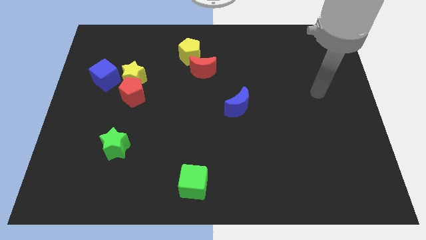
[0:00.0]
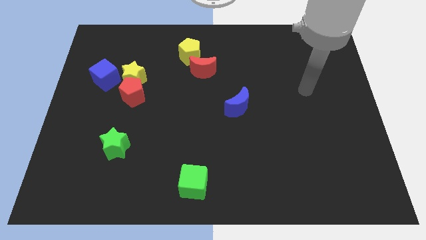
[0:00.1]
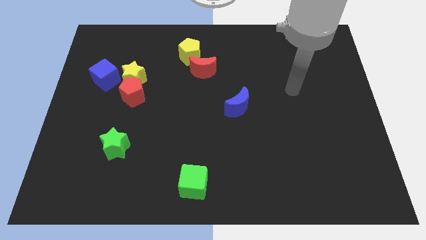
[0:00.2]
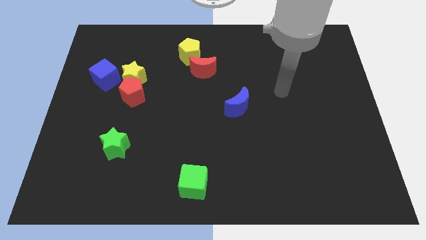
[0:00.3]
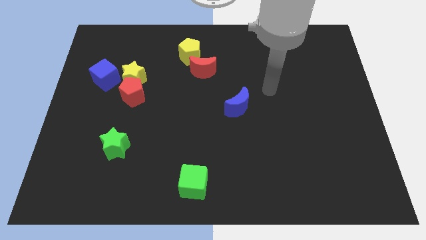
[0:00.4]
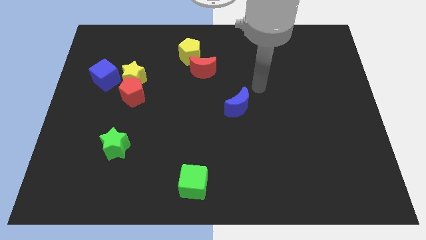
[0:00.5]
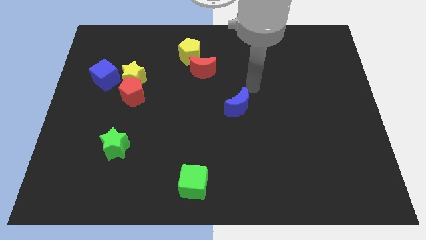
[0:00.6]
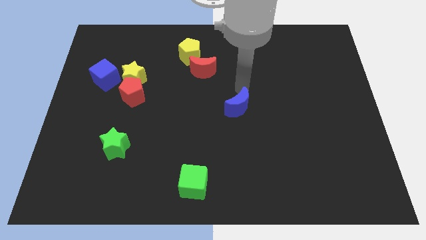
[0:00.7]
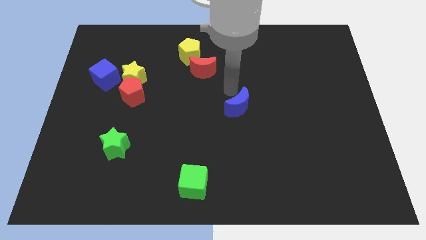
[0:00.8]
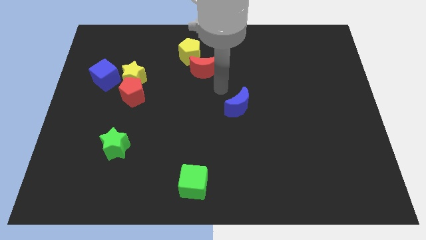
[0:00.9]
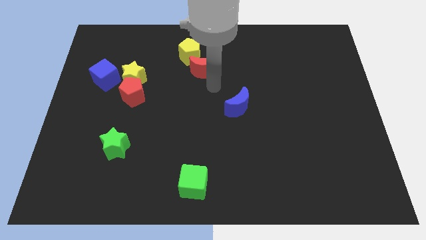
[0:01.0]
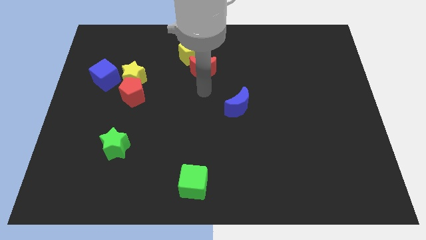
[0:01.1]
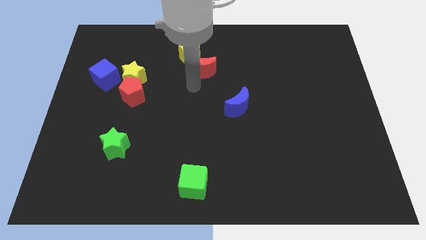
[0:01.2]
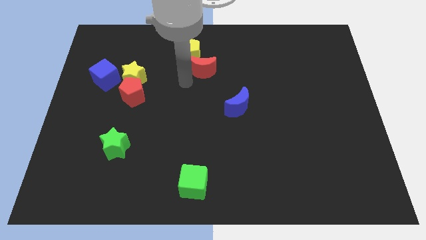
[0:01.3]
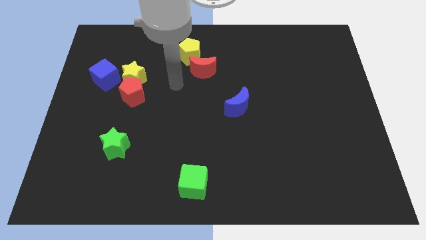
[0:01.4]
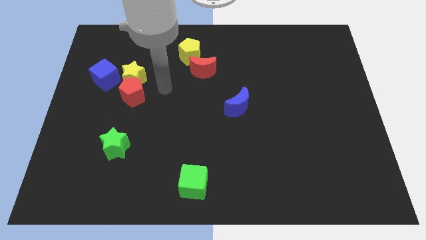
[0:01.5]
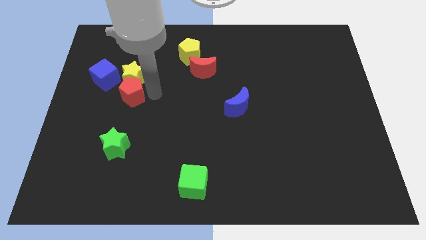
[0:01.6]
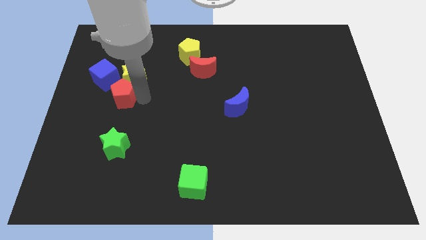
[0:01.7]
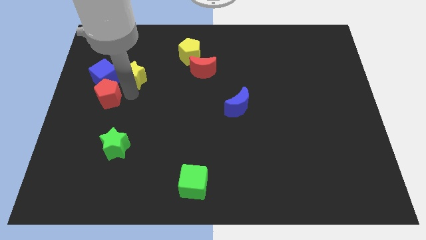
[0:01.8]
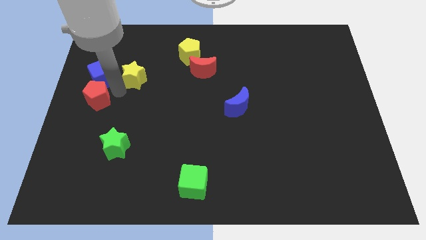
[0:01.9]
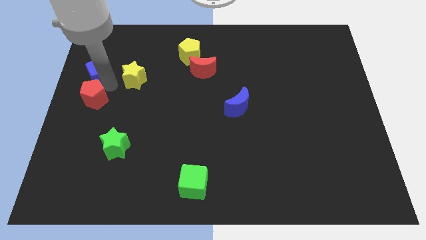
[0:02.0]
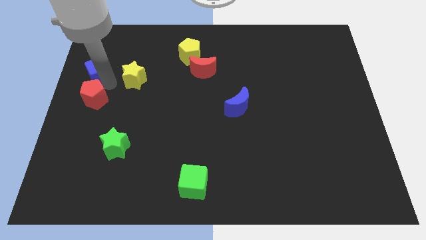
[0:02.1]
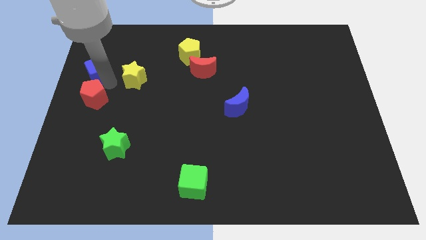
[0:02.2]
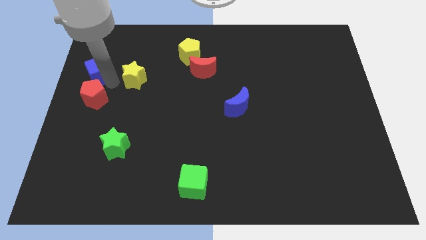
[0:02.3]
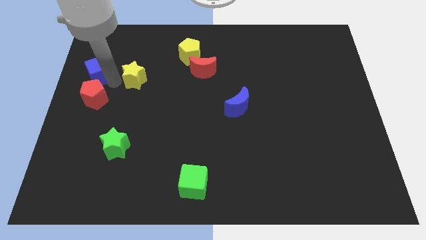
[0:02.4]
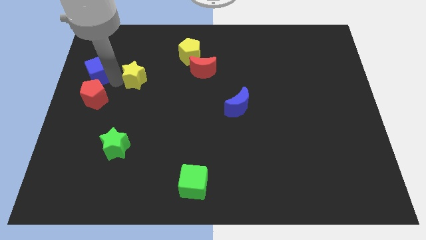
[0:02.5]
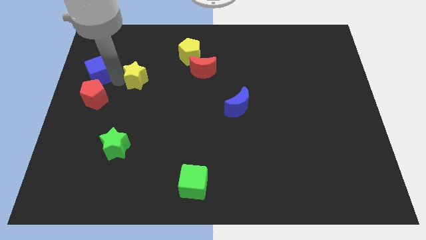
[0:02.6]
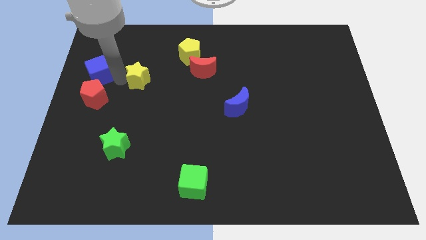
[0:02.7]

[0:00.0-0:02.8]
move the yellow star away from the red pentagon and blue cube

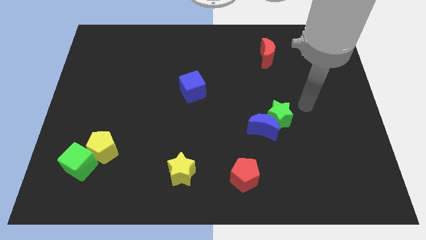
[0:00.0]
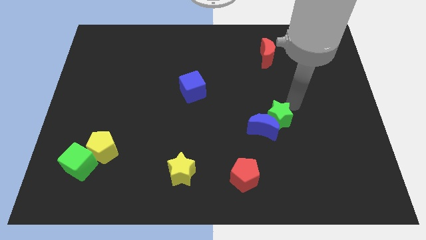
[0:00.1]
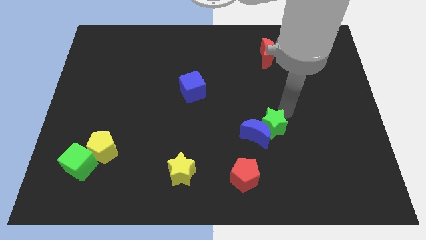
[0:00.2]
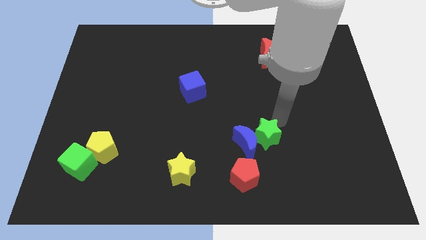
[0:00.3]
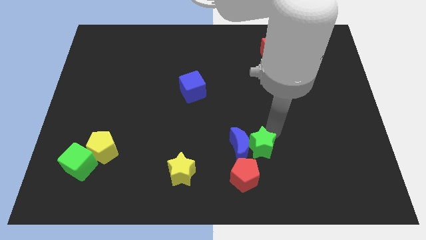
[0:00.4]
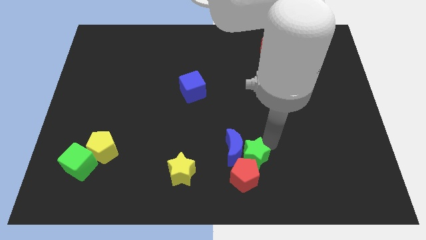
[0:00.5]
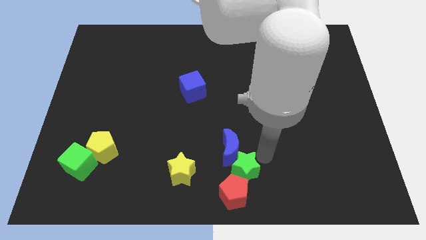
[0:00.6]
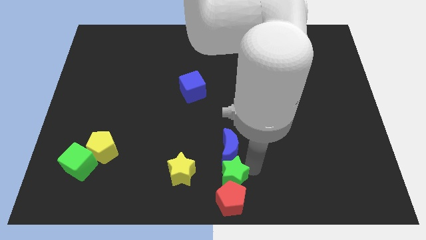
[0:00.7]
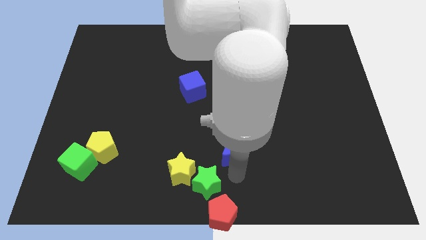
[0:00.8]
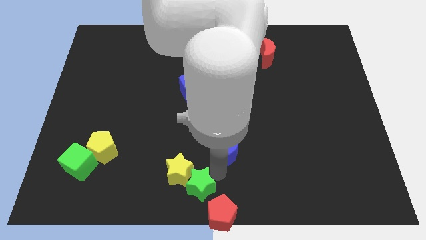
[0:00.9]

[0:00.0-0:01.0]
separate the blue moon from the green star

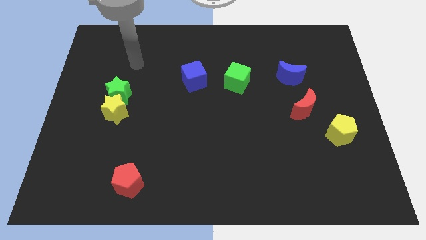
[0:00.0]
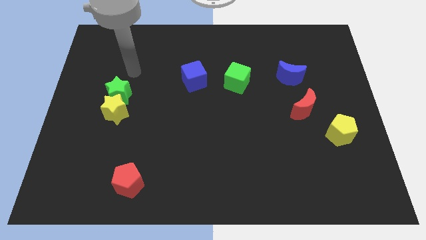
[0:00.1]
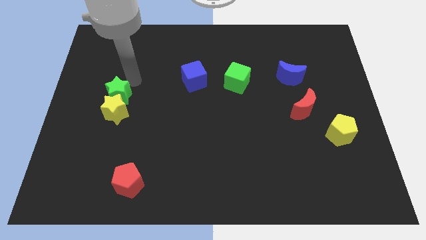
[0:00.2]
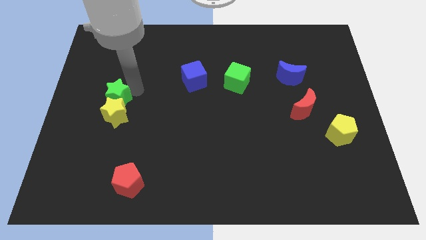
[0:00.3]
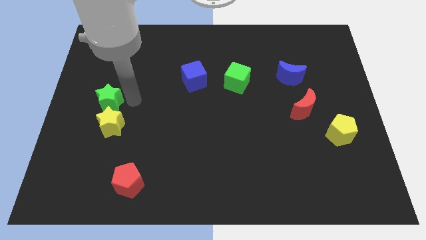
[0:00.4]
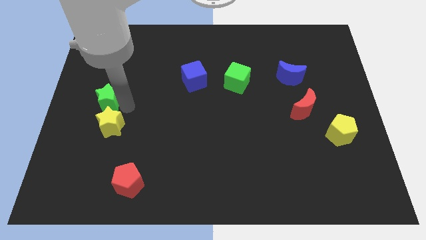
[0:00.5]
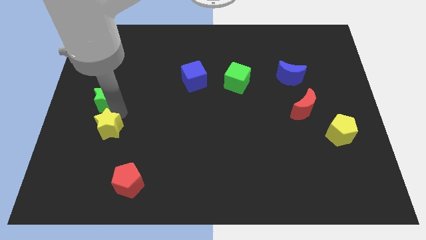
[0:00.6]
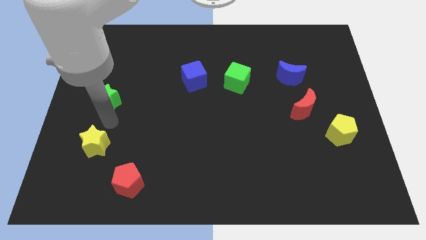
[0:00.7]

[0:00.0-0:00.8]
move the green star away from the yellow star

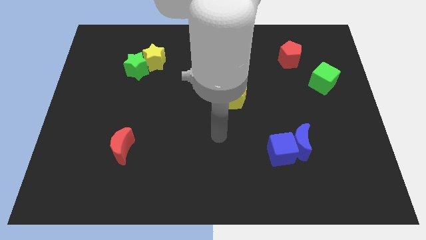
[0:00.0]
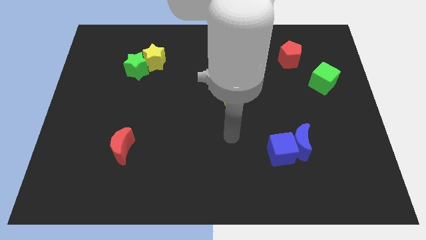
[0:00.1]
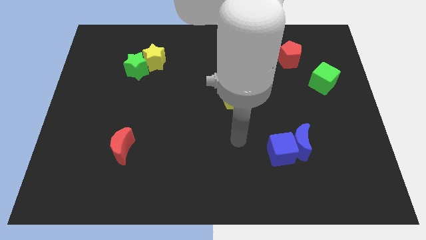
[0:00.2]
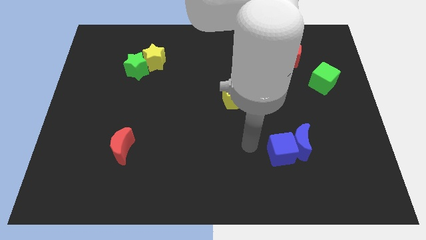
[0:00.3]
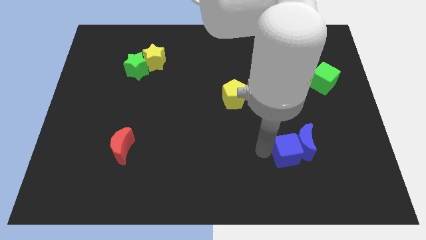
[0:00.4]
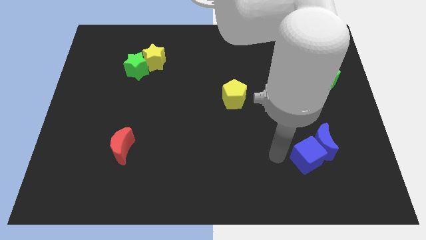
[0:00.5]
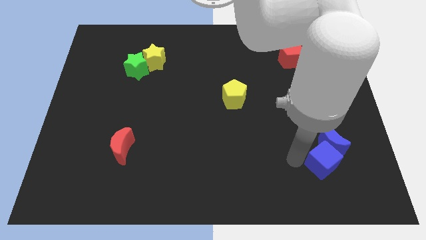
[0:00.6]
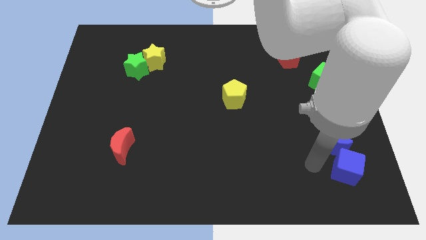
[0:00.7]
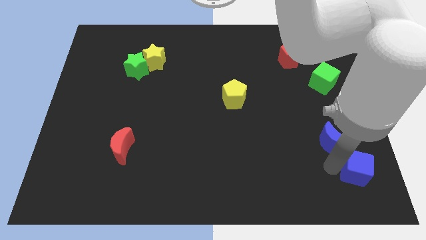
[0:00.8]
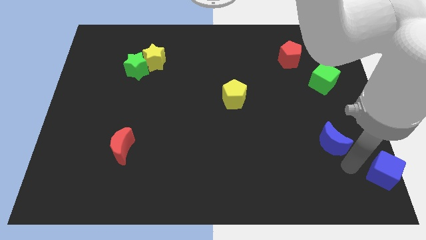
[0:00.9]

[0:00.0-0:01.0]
pull the blue moon apart from the blue cube

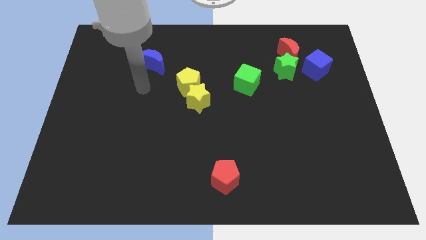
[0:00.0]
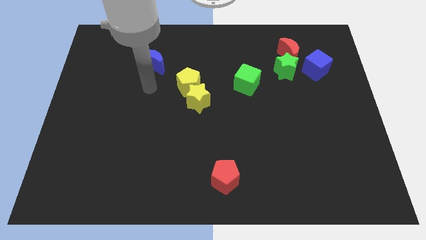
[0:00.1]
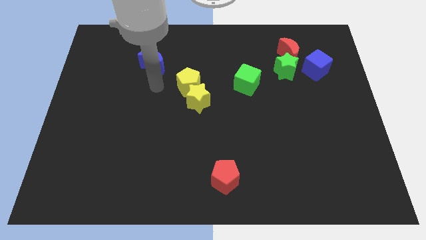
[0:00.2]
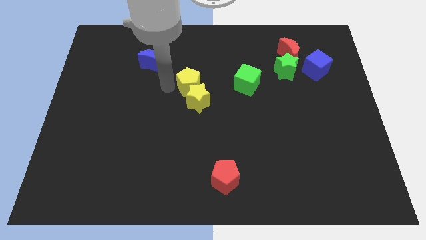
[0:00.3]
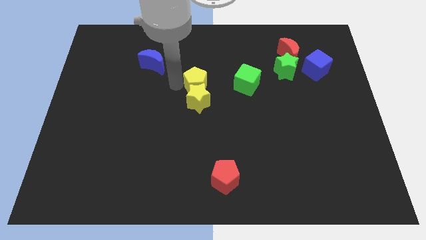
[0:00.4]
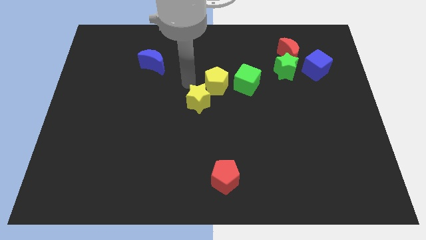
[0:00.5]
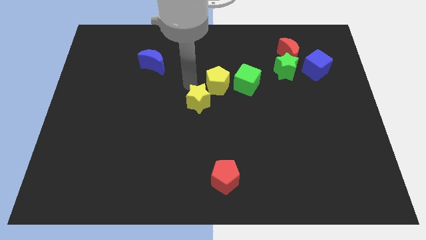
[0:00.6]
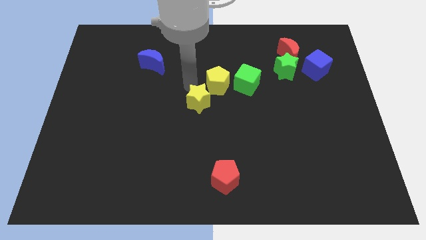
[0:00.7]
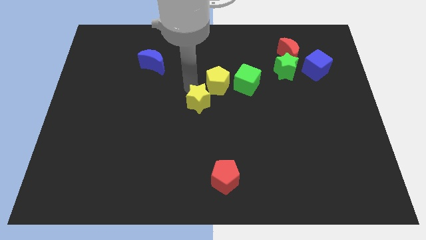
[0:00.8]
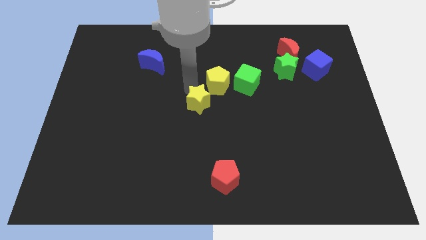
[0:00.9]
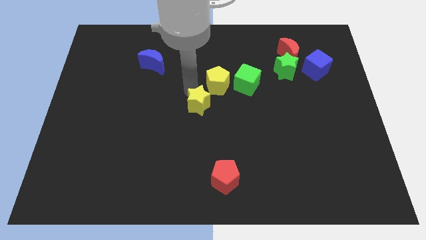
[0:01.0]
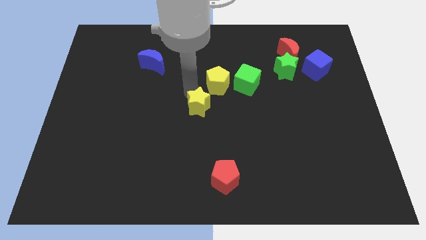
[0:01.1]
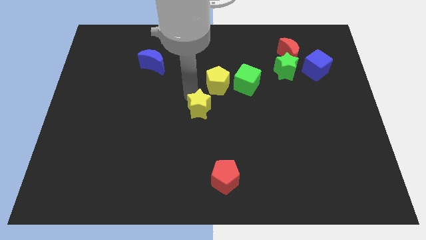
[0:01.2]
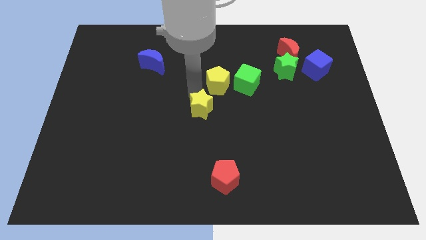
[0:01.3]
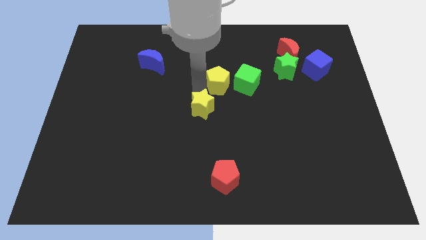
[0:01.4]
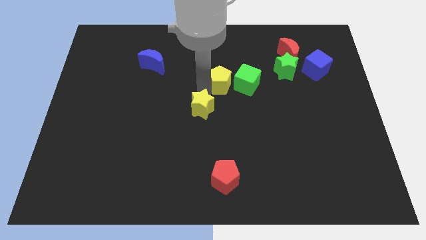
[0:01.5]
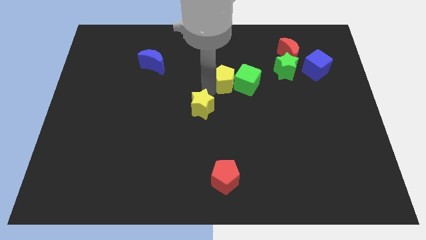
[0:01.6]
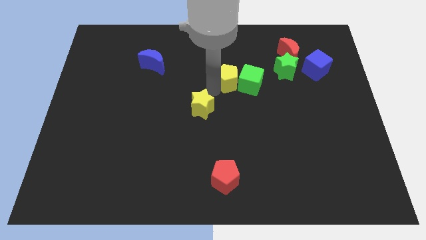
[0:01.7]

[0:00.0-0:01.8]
separate the yellow star from the yellow pentagon

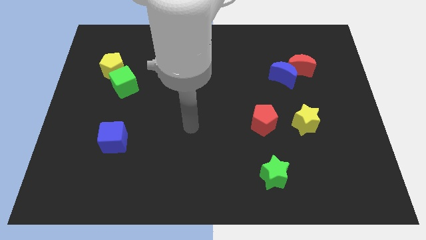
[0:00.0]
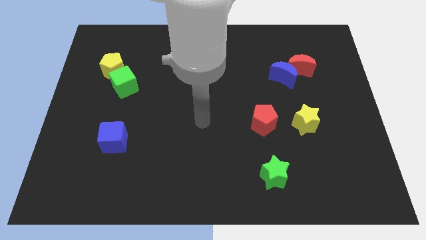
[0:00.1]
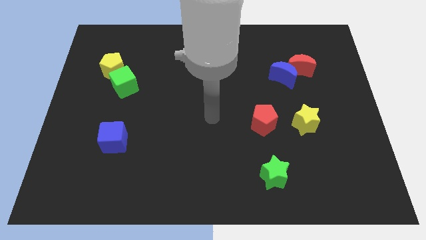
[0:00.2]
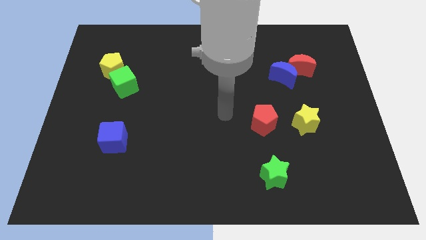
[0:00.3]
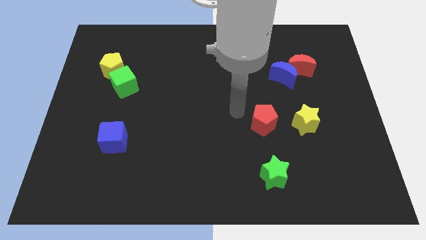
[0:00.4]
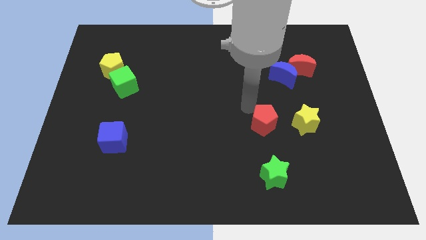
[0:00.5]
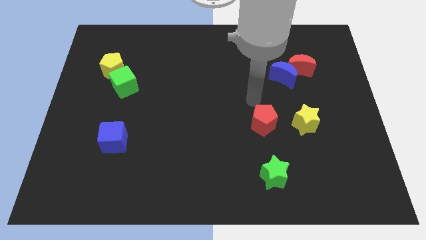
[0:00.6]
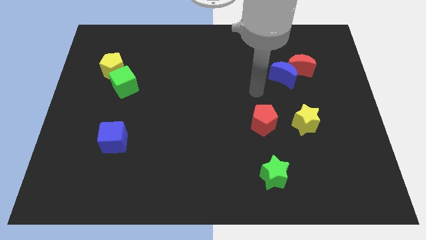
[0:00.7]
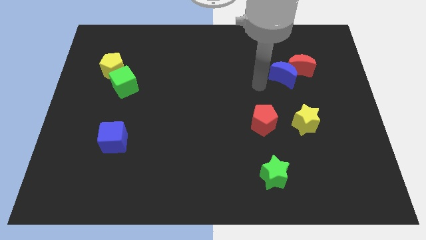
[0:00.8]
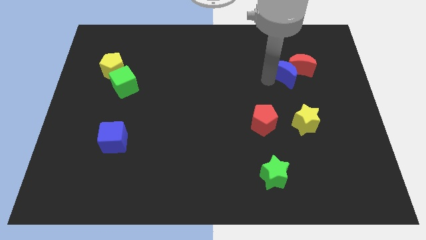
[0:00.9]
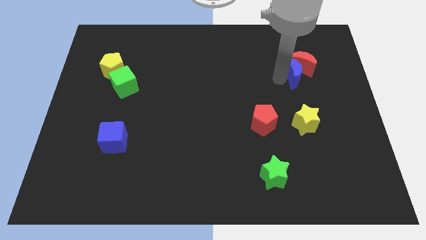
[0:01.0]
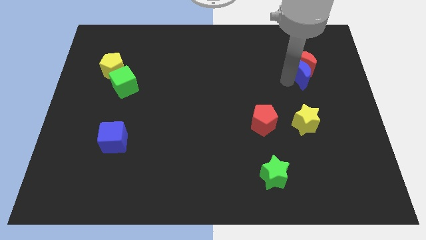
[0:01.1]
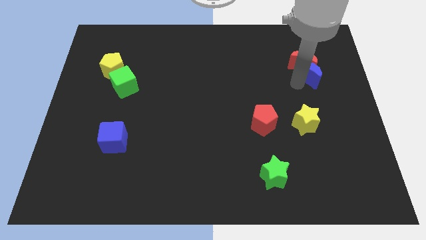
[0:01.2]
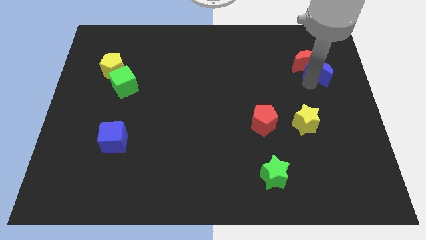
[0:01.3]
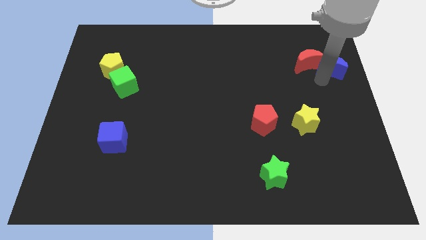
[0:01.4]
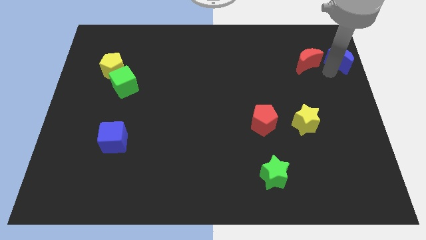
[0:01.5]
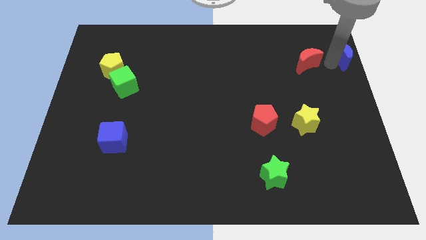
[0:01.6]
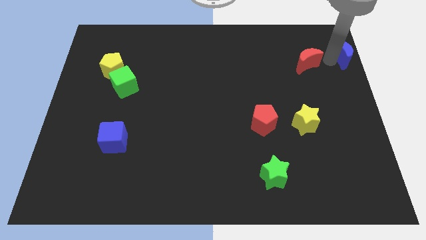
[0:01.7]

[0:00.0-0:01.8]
move the red moon away from the blue moon

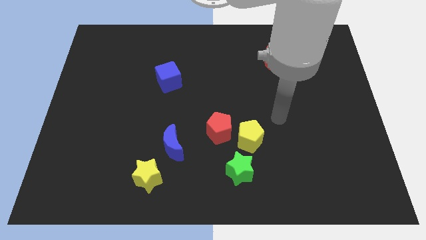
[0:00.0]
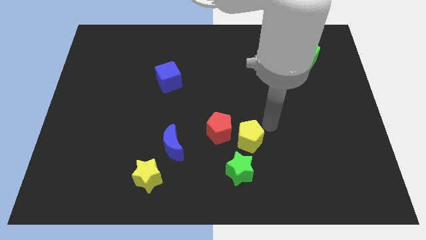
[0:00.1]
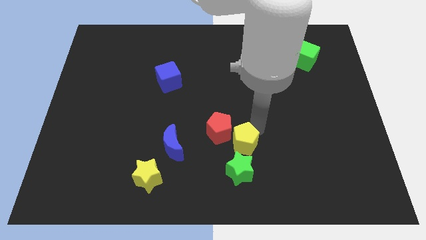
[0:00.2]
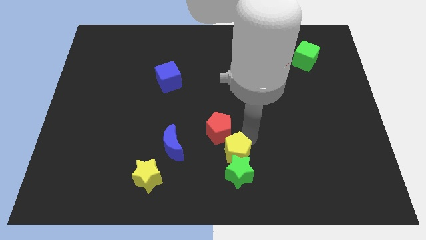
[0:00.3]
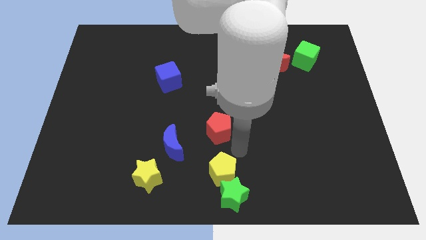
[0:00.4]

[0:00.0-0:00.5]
separate the red pentagon from the yellow pentagon
